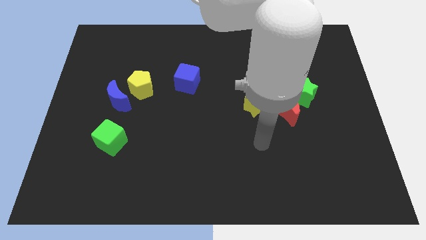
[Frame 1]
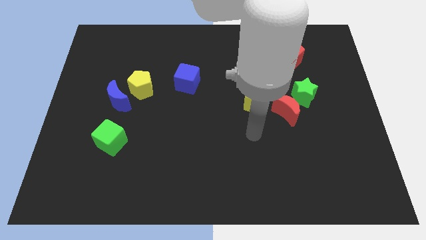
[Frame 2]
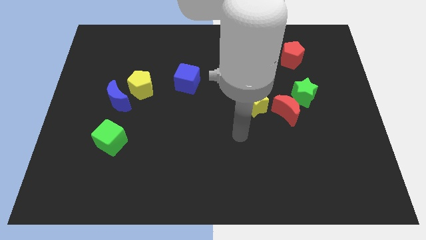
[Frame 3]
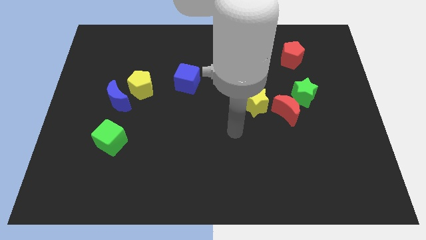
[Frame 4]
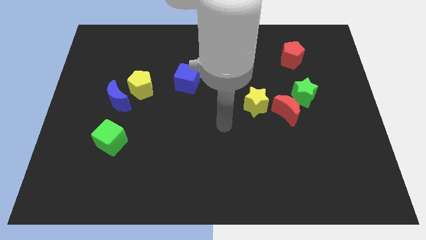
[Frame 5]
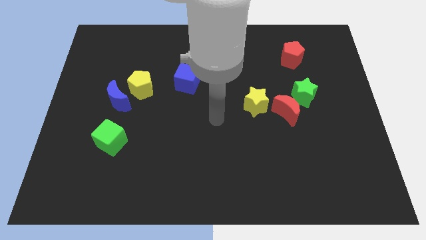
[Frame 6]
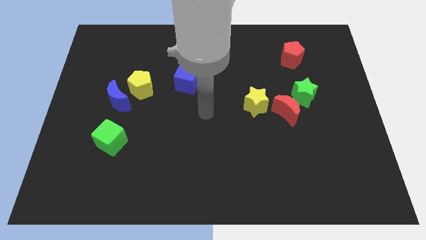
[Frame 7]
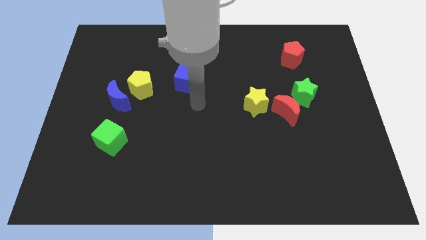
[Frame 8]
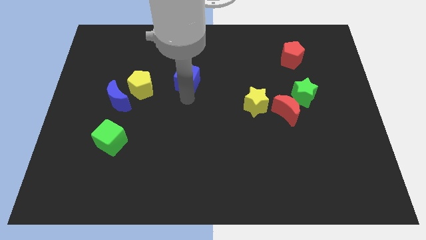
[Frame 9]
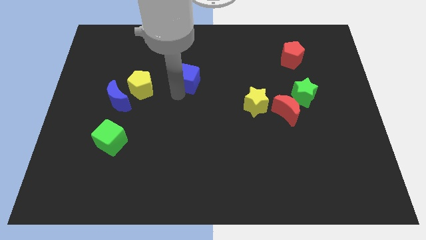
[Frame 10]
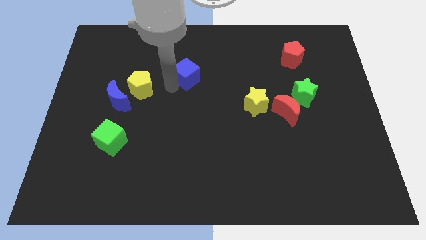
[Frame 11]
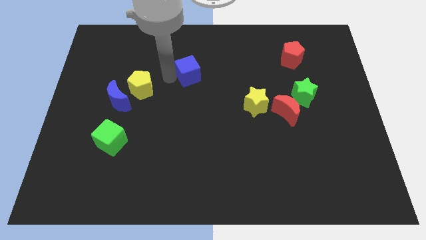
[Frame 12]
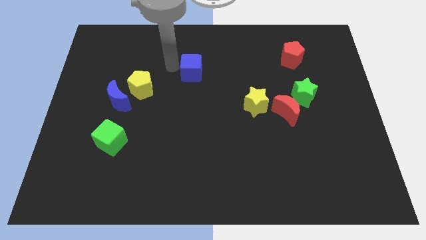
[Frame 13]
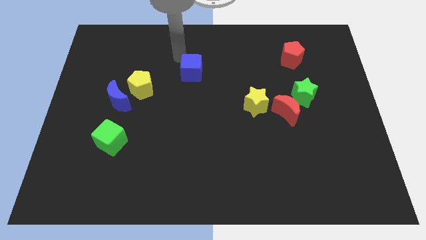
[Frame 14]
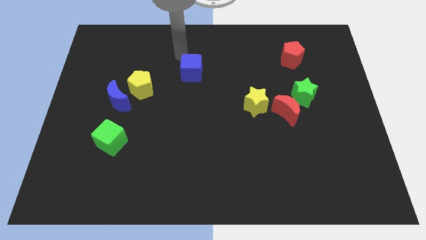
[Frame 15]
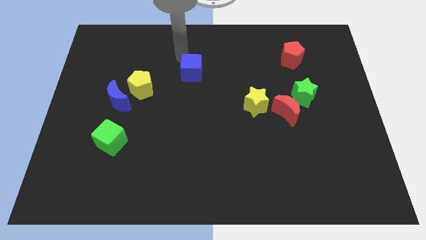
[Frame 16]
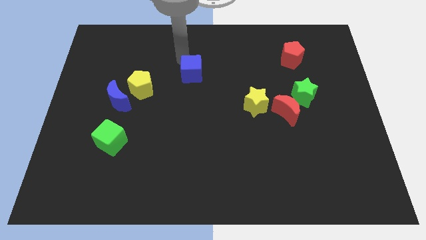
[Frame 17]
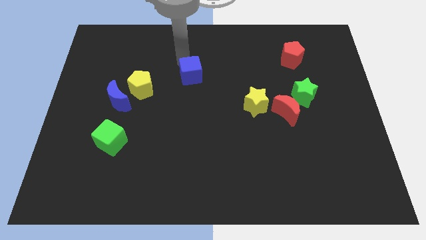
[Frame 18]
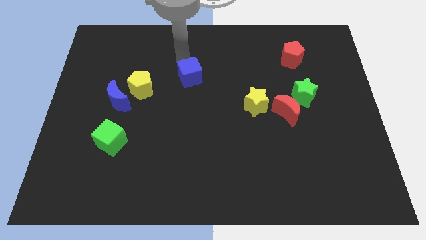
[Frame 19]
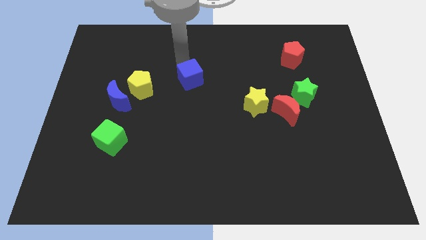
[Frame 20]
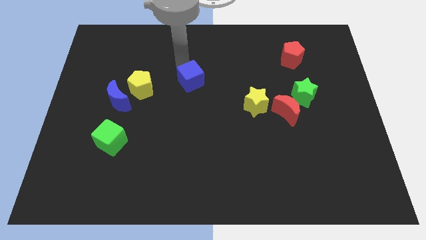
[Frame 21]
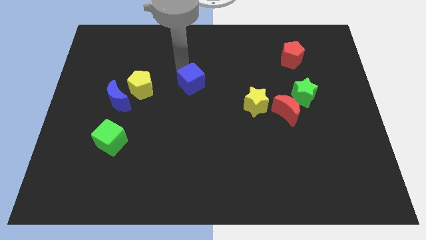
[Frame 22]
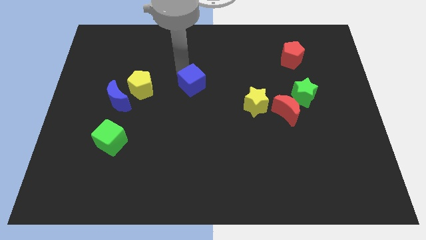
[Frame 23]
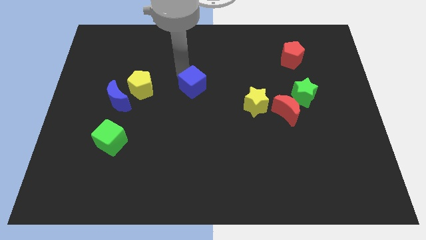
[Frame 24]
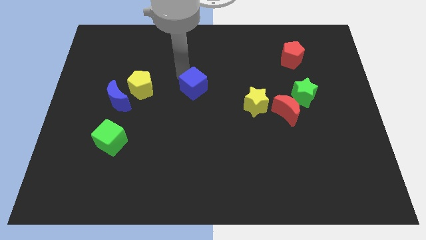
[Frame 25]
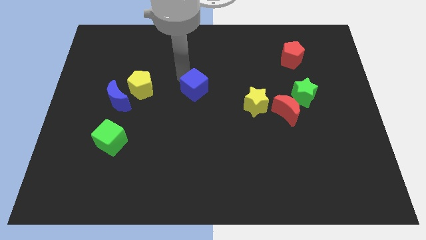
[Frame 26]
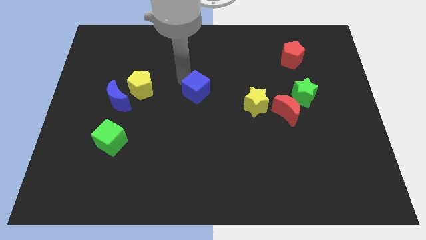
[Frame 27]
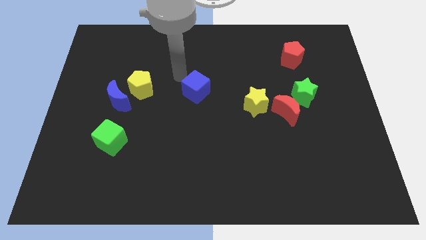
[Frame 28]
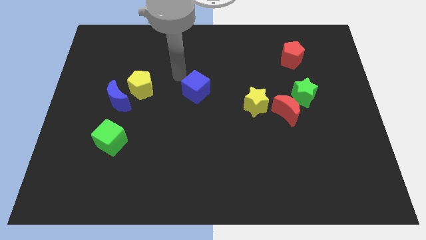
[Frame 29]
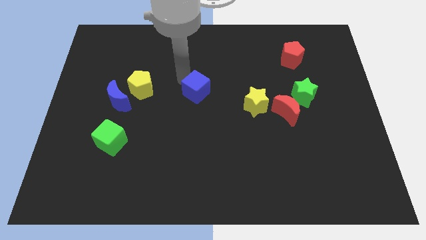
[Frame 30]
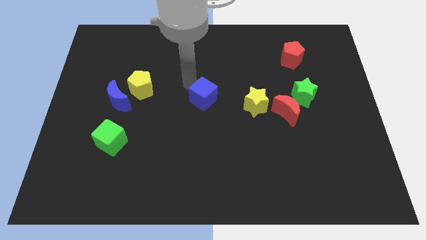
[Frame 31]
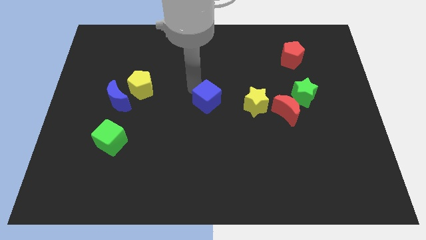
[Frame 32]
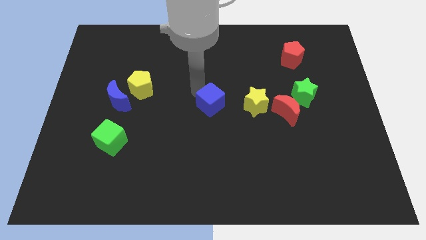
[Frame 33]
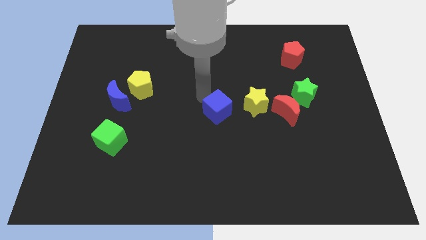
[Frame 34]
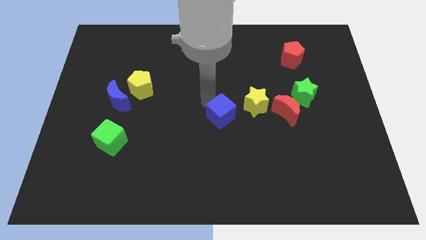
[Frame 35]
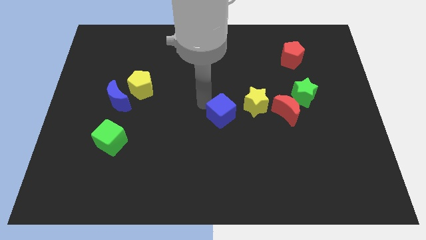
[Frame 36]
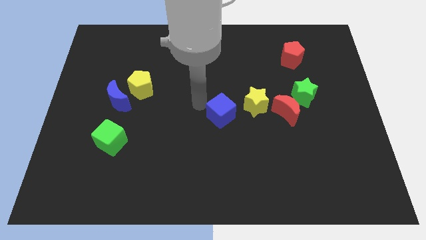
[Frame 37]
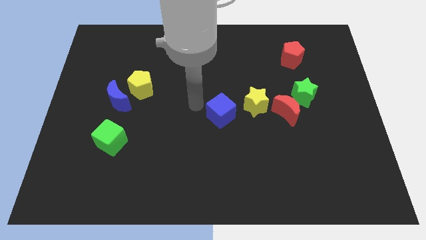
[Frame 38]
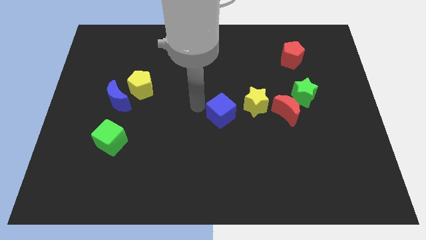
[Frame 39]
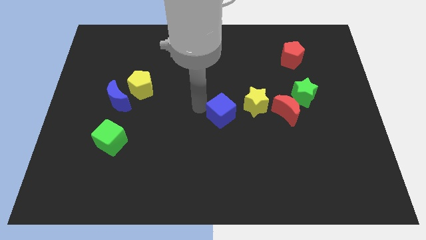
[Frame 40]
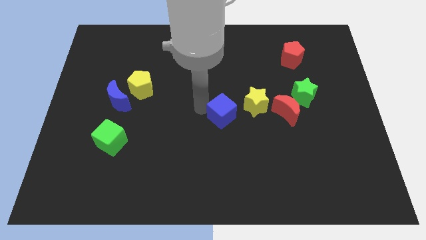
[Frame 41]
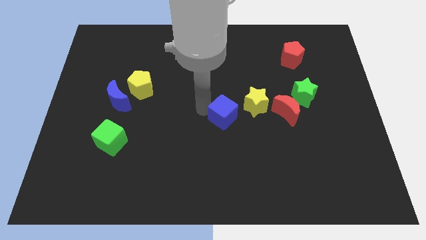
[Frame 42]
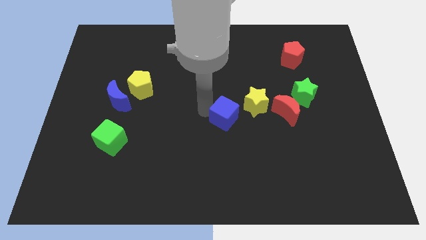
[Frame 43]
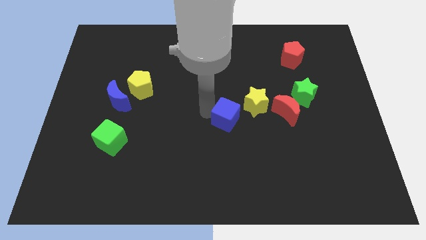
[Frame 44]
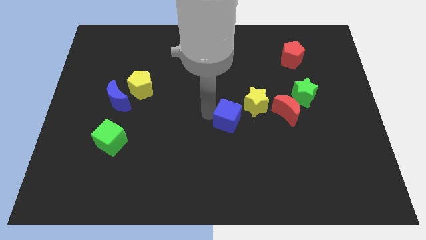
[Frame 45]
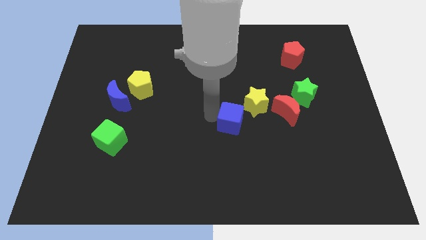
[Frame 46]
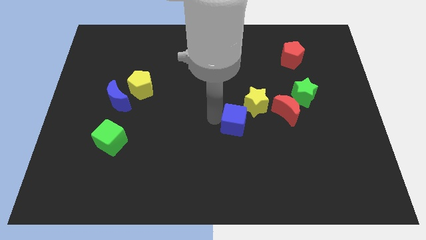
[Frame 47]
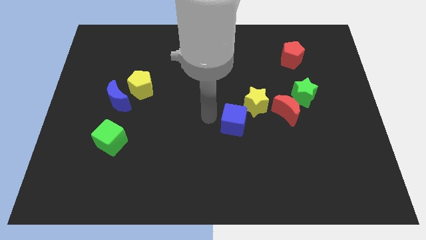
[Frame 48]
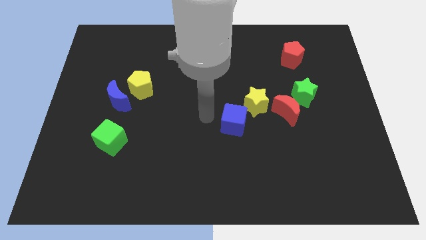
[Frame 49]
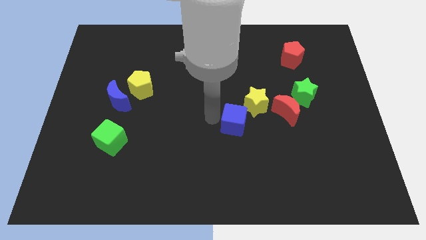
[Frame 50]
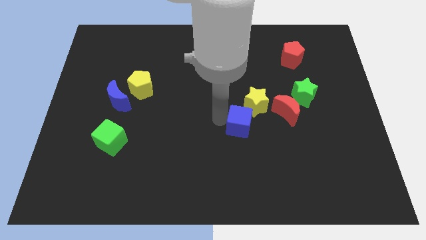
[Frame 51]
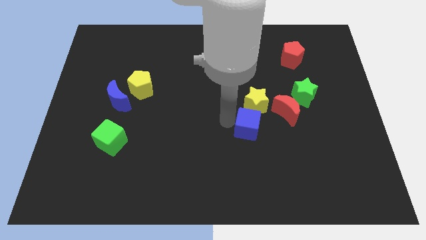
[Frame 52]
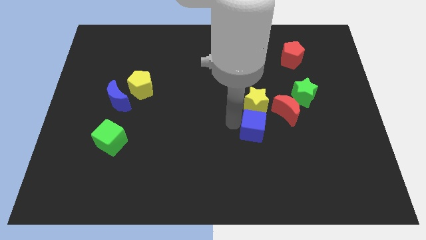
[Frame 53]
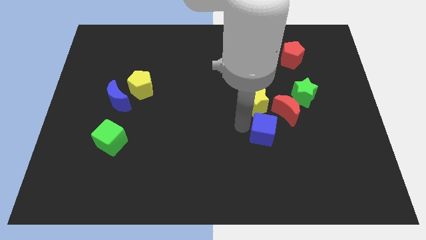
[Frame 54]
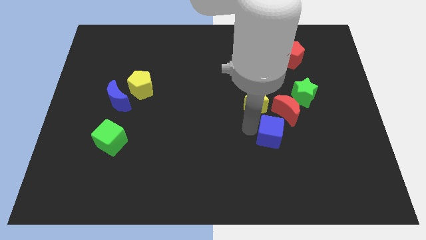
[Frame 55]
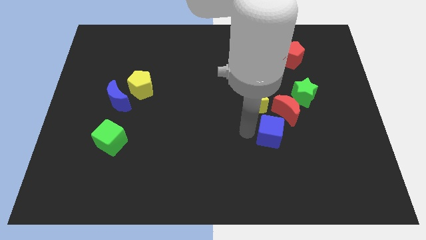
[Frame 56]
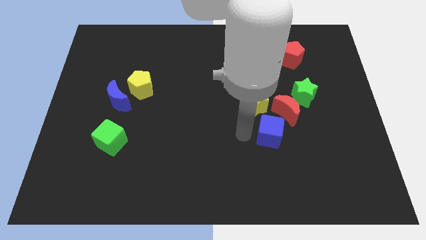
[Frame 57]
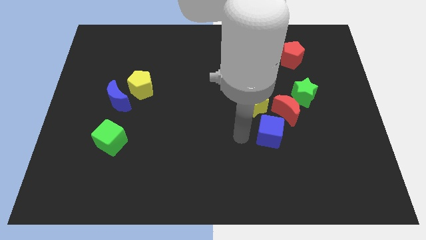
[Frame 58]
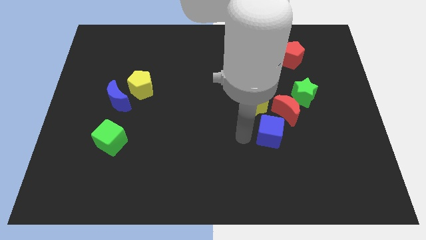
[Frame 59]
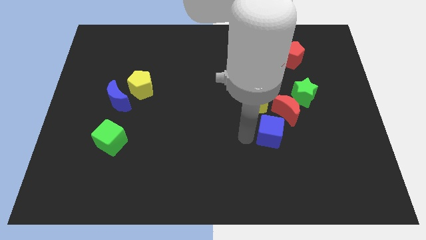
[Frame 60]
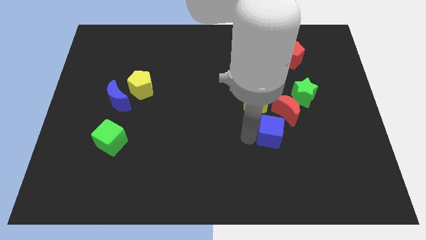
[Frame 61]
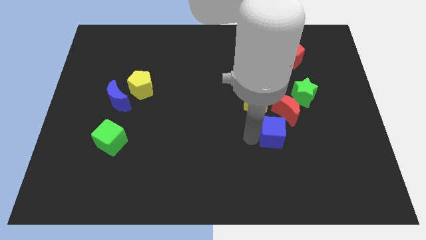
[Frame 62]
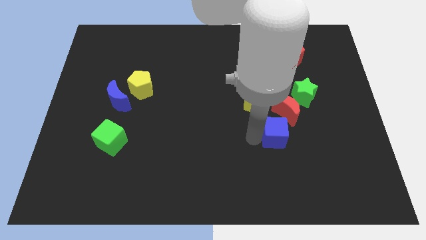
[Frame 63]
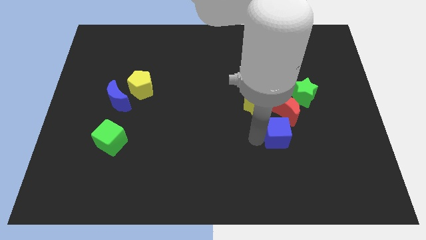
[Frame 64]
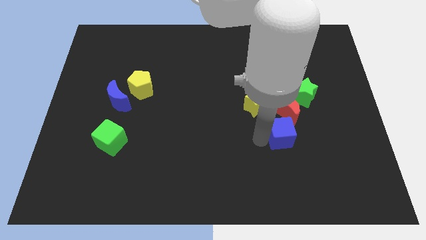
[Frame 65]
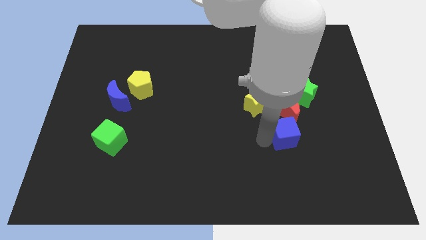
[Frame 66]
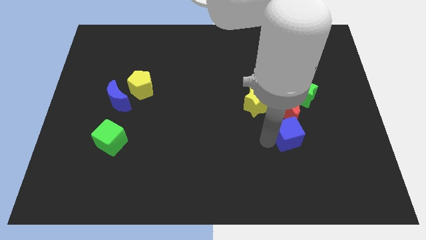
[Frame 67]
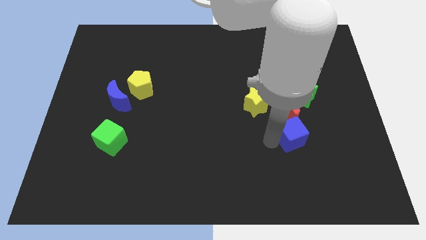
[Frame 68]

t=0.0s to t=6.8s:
put the blue cube to the bottom right side of the red moon
